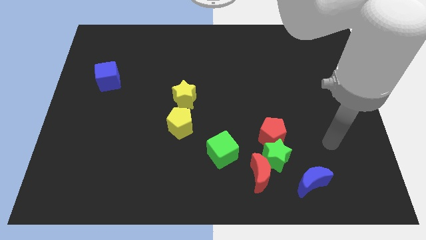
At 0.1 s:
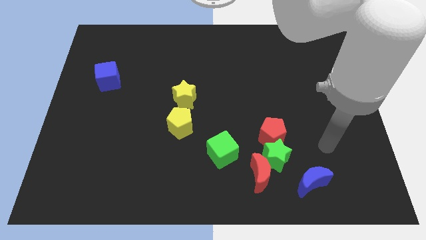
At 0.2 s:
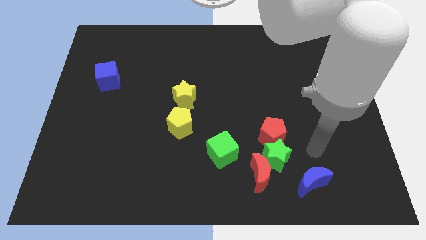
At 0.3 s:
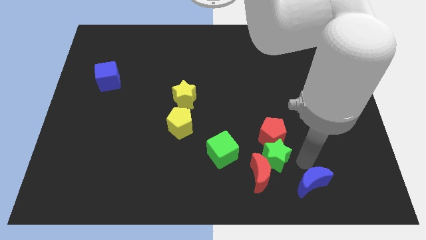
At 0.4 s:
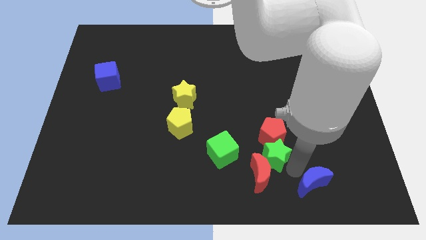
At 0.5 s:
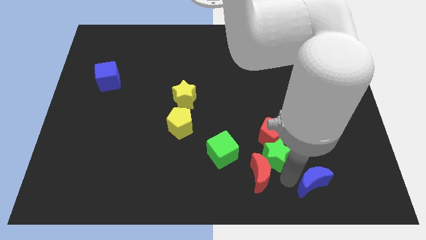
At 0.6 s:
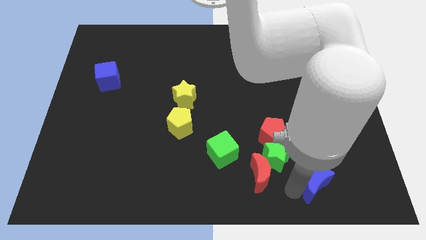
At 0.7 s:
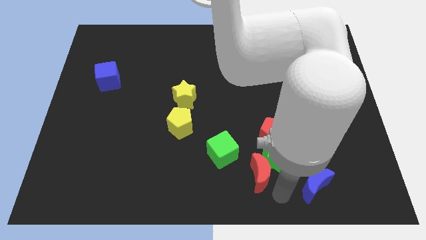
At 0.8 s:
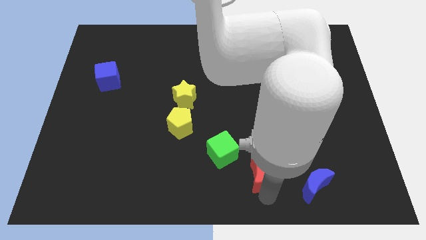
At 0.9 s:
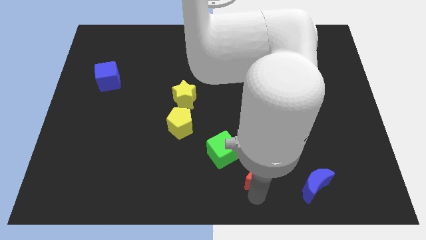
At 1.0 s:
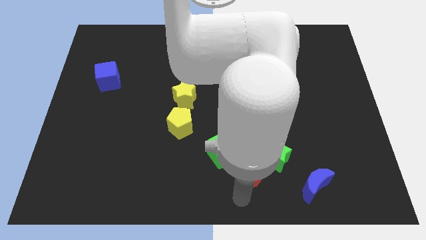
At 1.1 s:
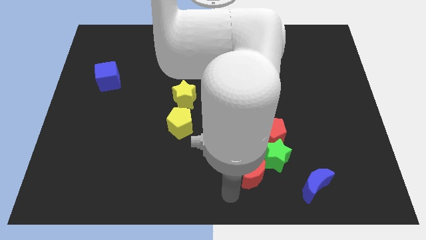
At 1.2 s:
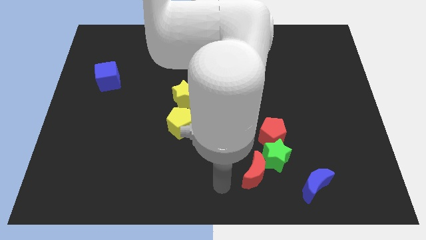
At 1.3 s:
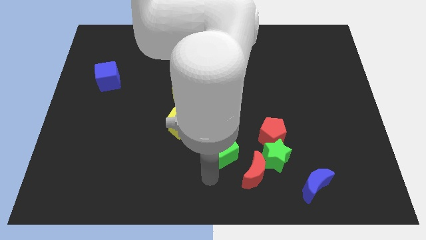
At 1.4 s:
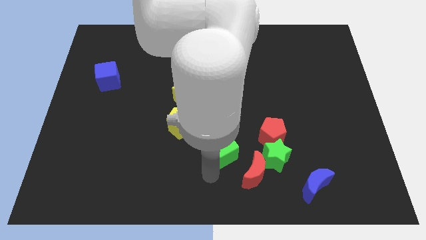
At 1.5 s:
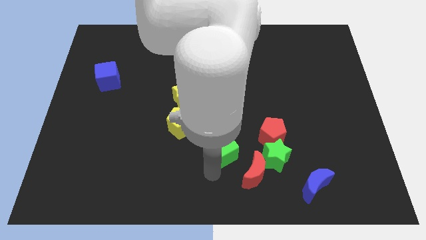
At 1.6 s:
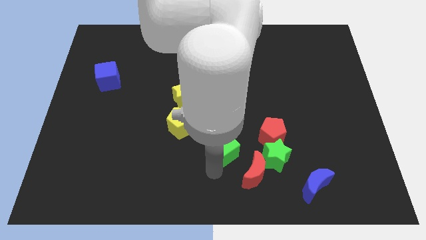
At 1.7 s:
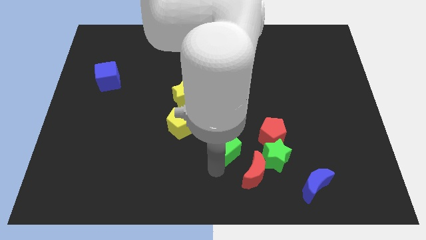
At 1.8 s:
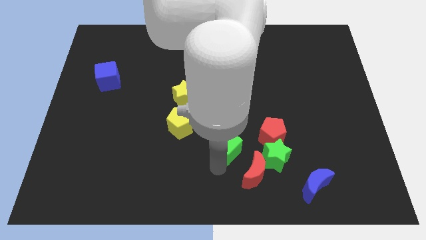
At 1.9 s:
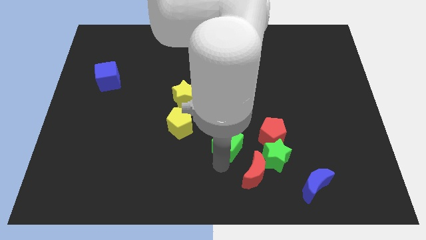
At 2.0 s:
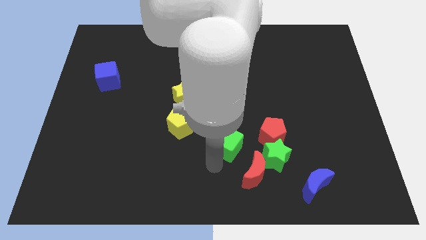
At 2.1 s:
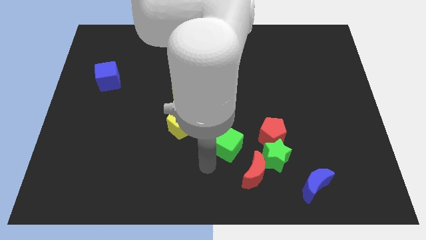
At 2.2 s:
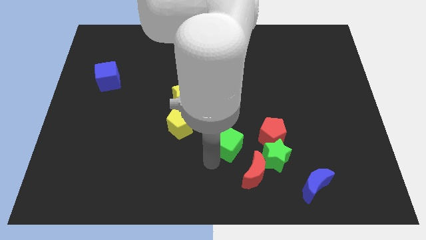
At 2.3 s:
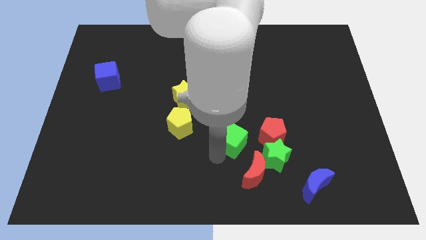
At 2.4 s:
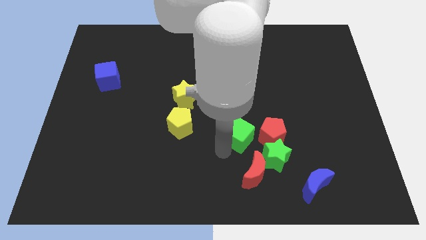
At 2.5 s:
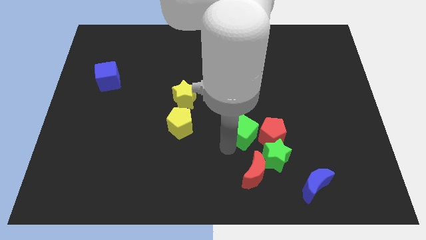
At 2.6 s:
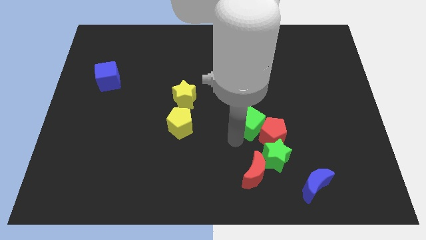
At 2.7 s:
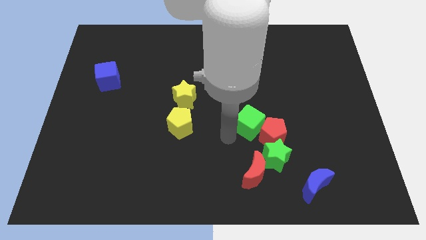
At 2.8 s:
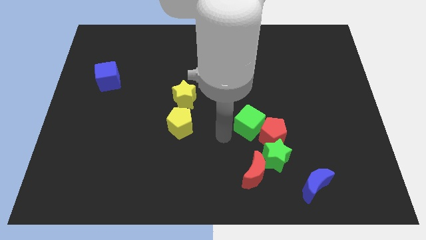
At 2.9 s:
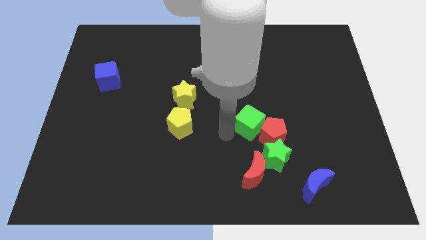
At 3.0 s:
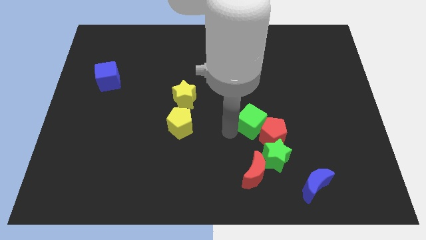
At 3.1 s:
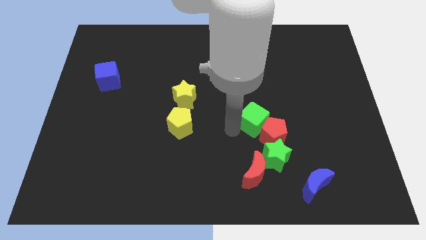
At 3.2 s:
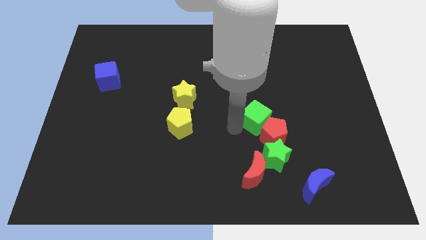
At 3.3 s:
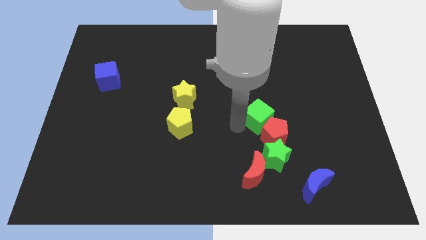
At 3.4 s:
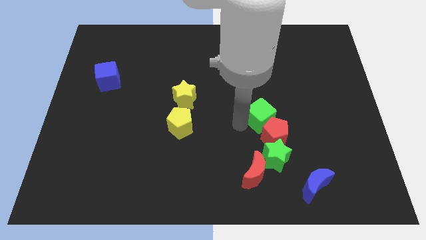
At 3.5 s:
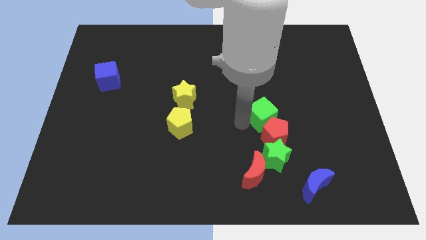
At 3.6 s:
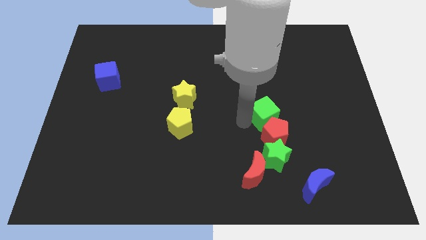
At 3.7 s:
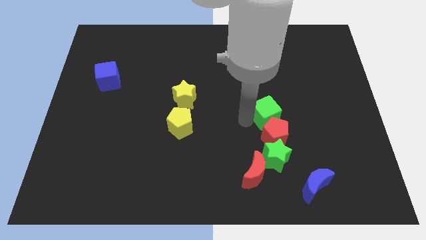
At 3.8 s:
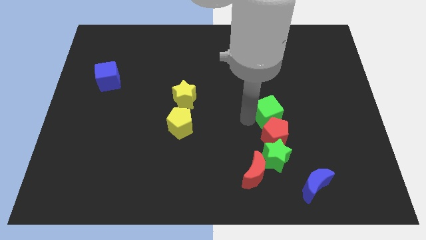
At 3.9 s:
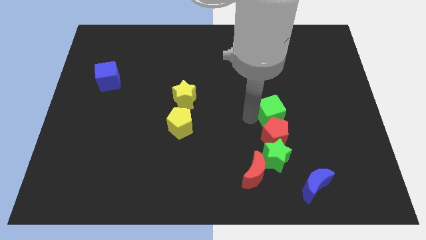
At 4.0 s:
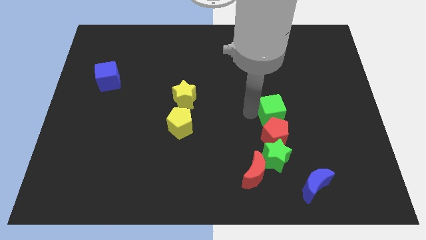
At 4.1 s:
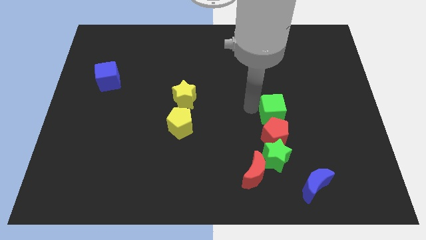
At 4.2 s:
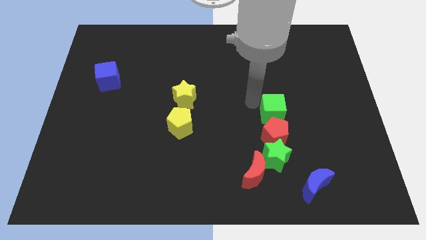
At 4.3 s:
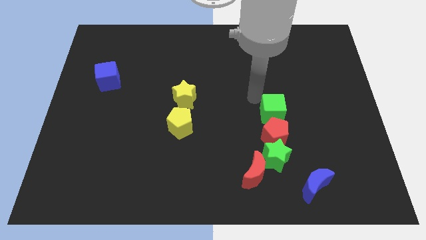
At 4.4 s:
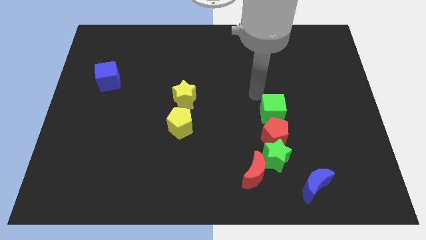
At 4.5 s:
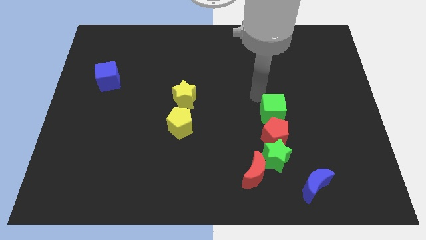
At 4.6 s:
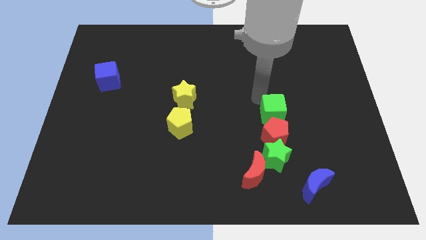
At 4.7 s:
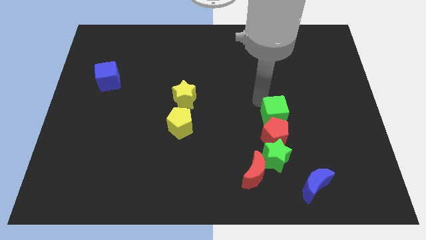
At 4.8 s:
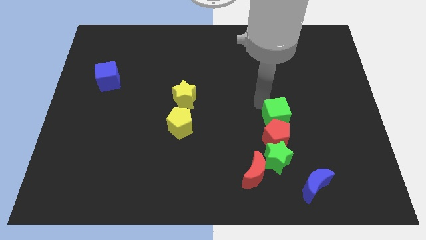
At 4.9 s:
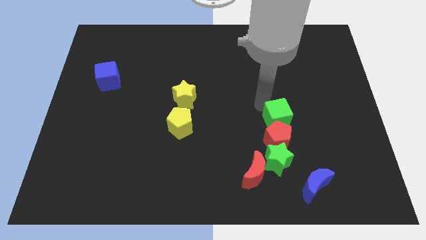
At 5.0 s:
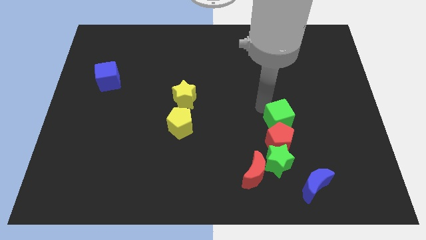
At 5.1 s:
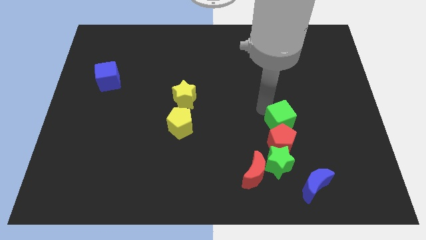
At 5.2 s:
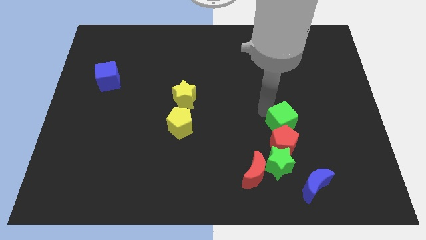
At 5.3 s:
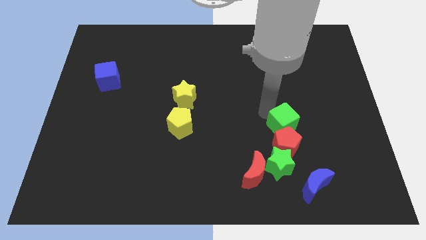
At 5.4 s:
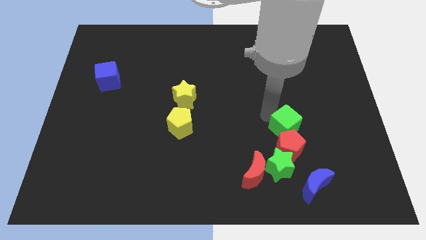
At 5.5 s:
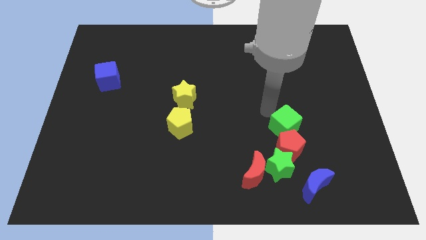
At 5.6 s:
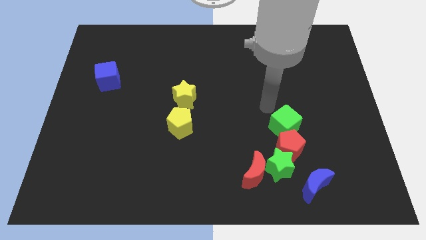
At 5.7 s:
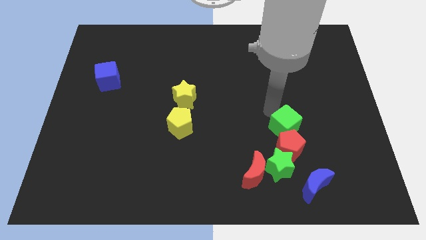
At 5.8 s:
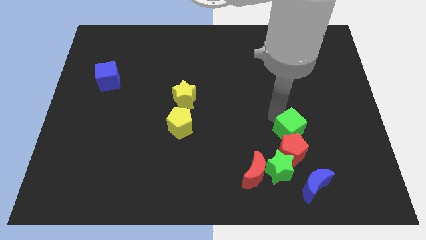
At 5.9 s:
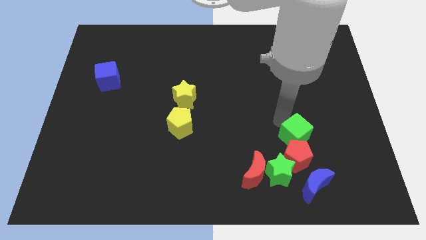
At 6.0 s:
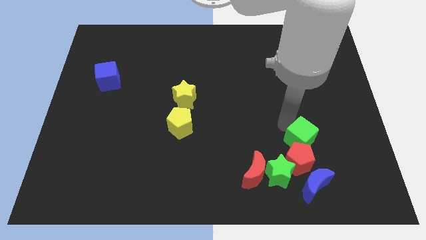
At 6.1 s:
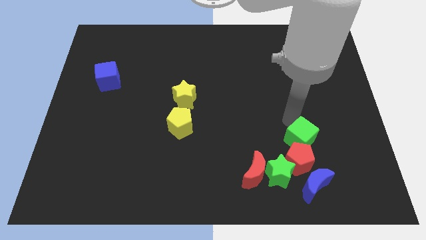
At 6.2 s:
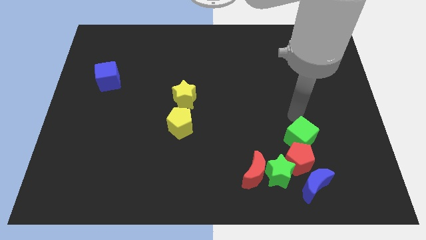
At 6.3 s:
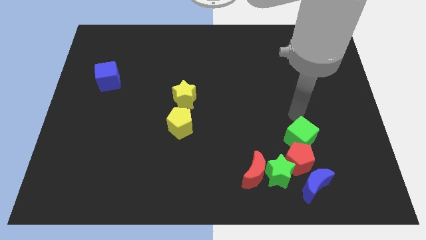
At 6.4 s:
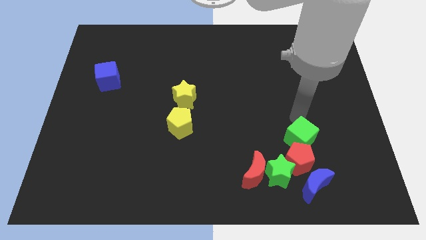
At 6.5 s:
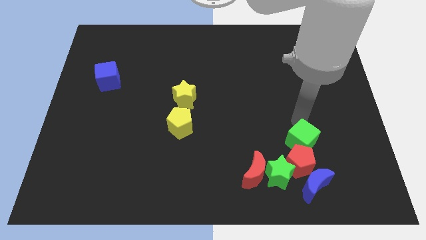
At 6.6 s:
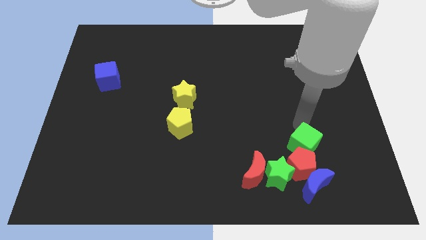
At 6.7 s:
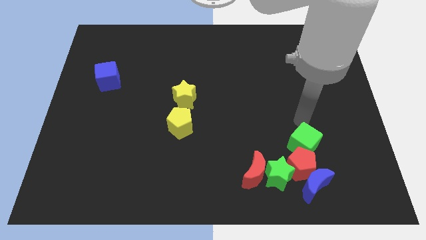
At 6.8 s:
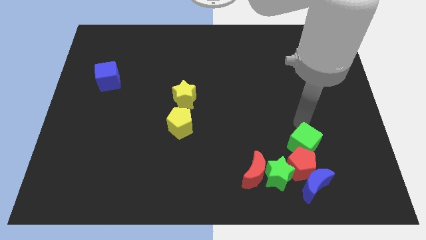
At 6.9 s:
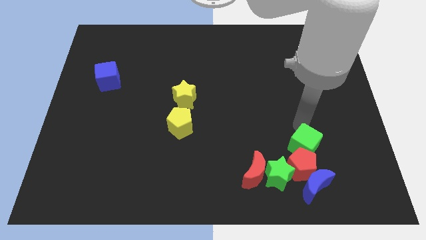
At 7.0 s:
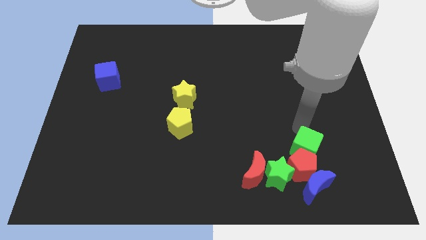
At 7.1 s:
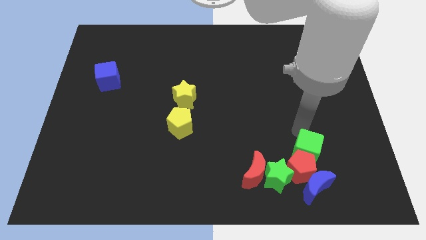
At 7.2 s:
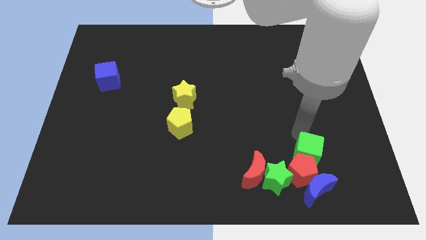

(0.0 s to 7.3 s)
move the green cube to the right side of the red moon
